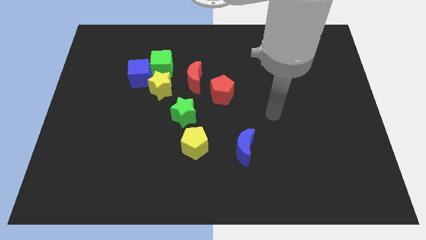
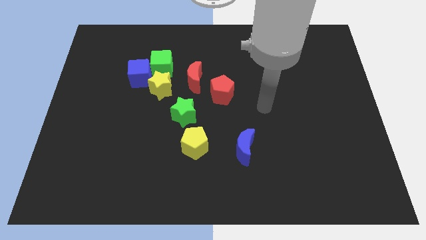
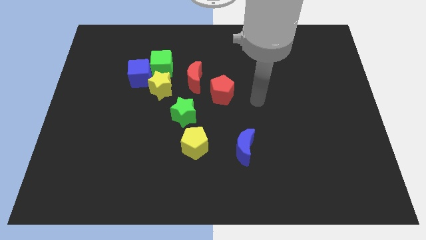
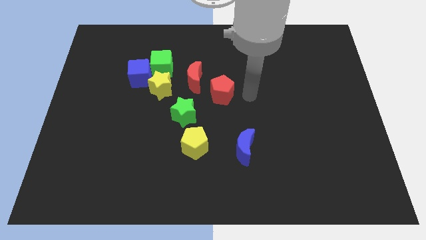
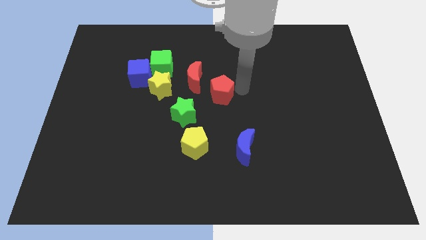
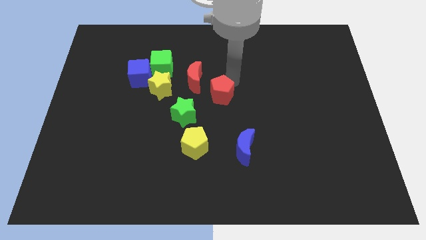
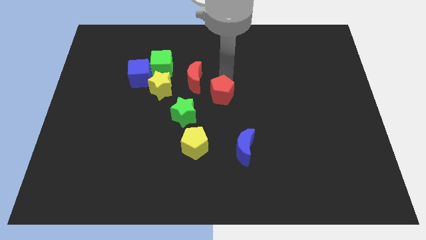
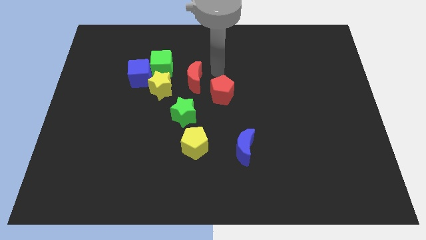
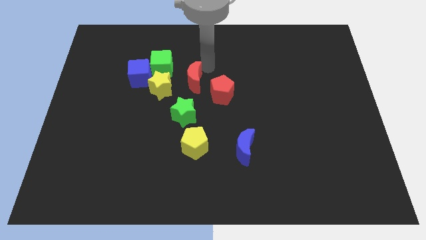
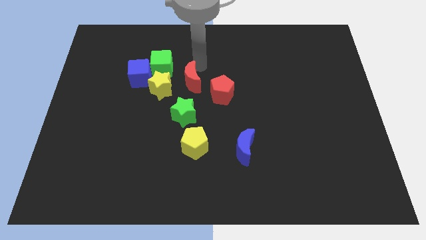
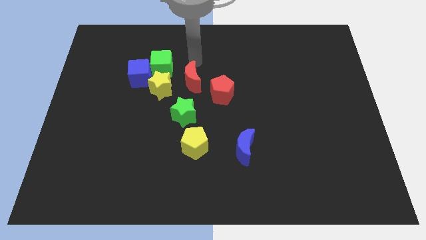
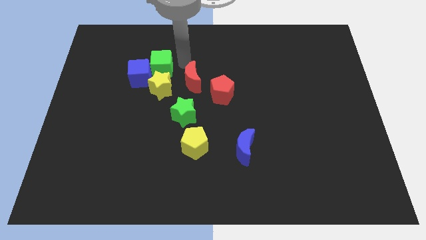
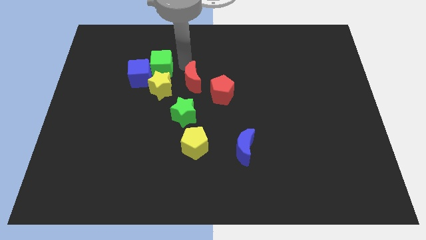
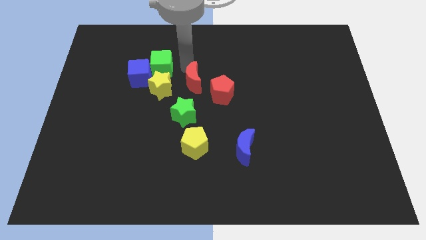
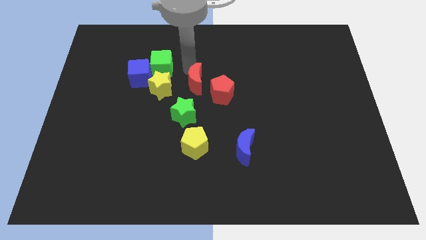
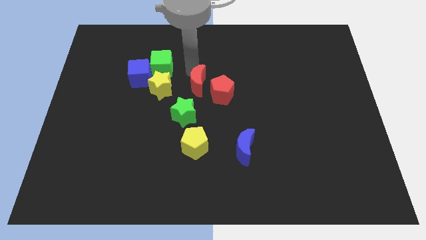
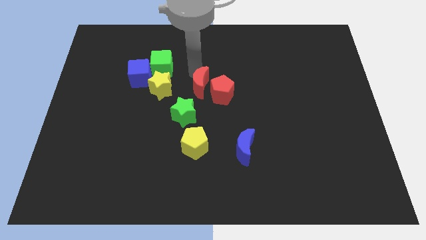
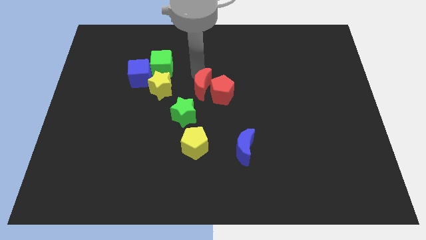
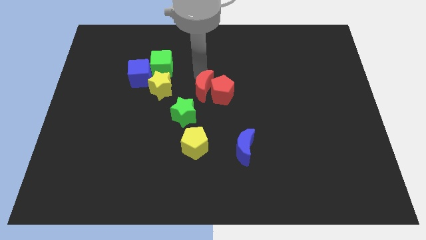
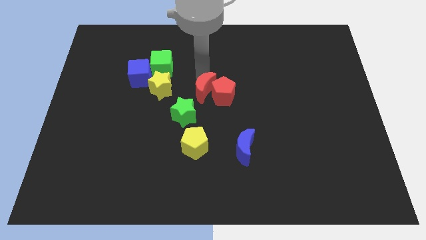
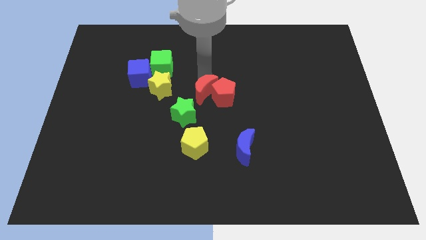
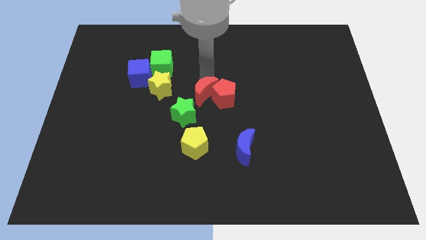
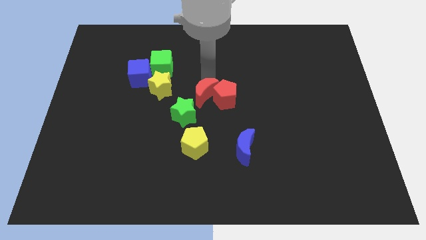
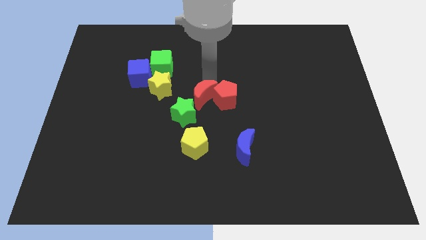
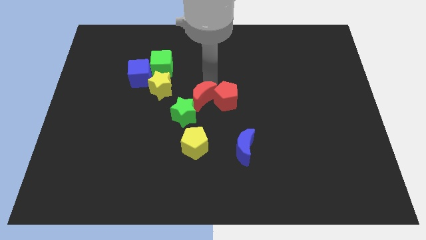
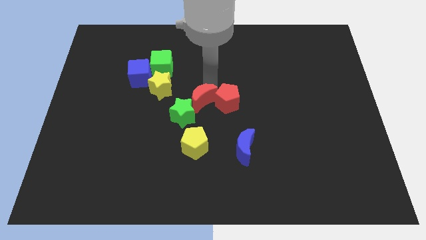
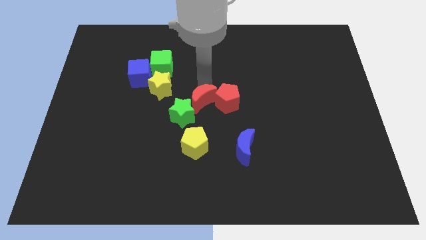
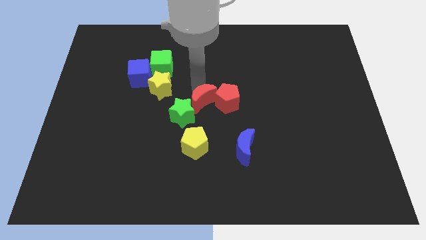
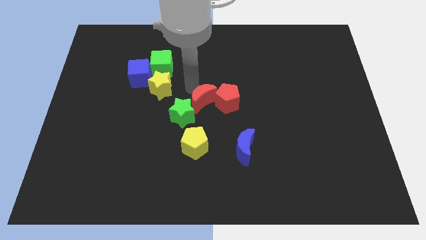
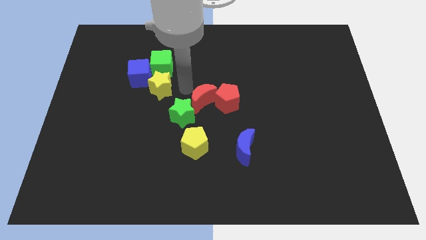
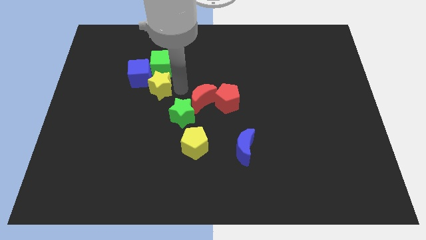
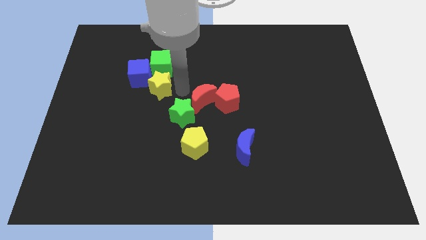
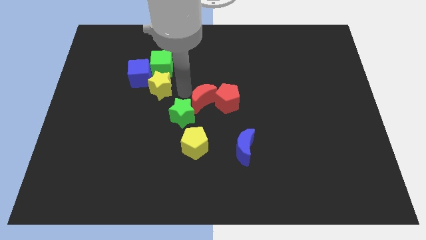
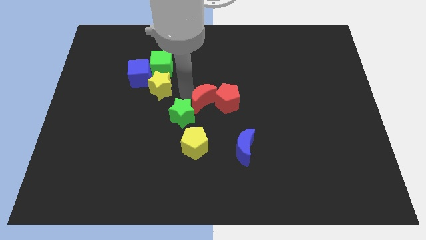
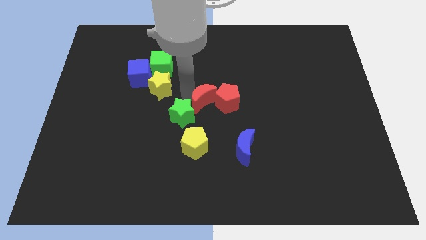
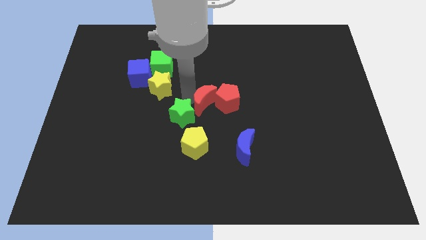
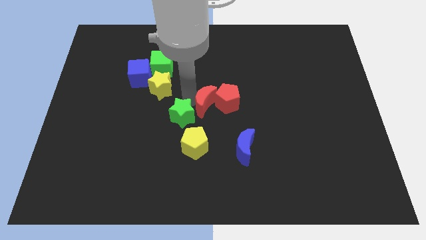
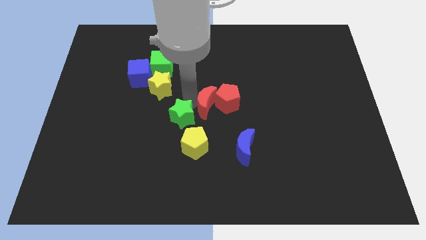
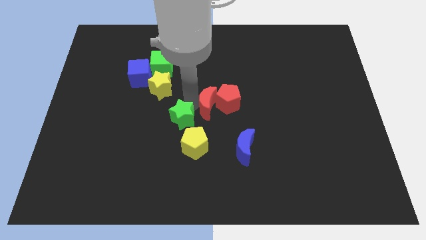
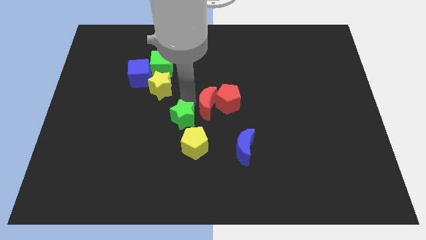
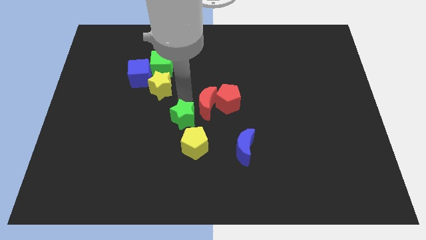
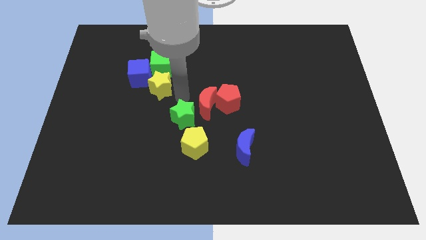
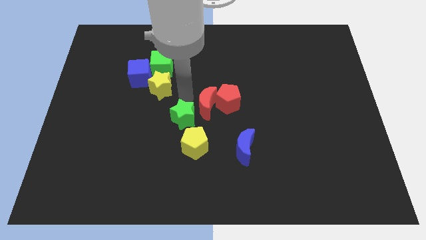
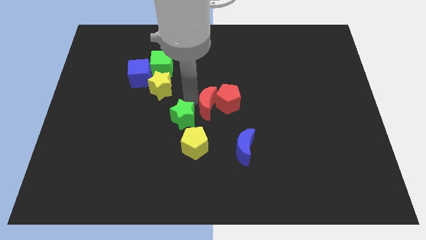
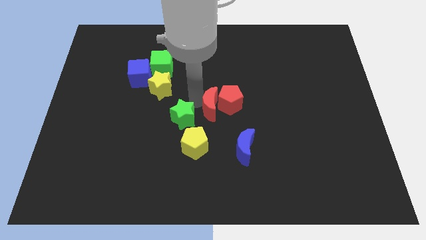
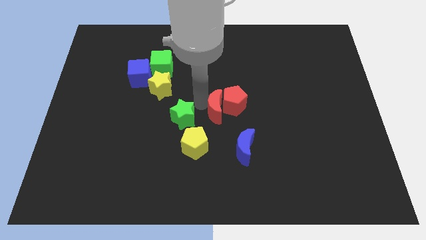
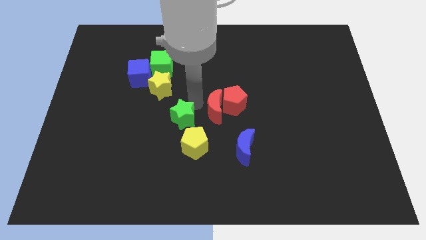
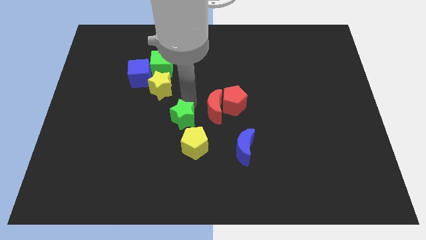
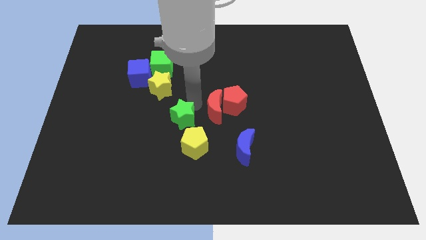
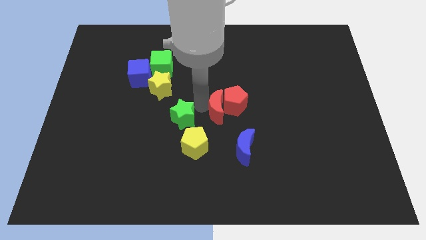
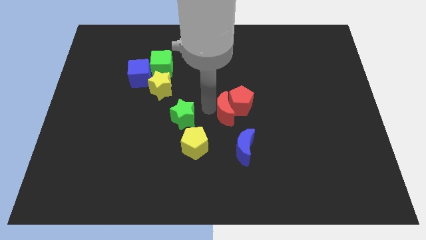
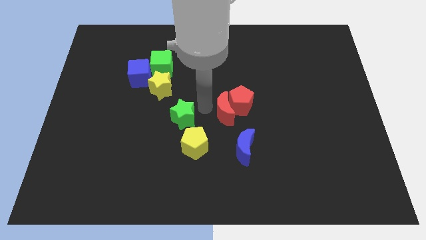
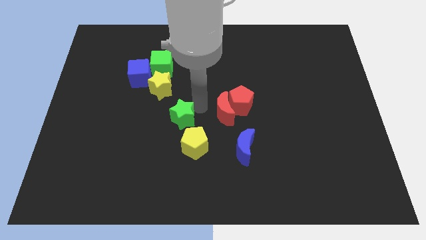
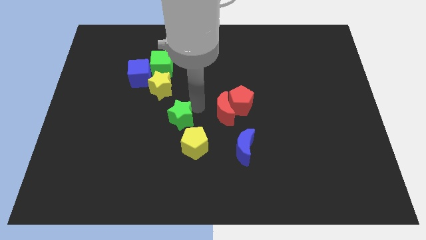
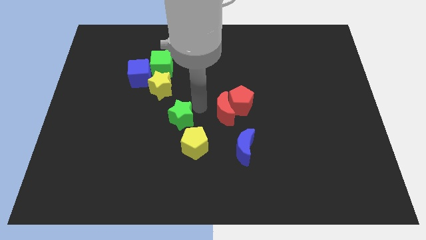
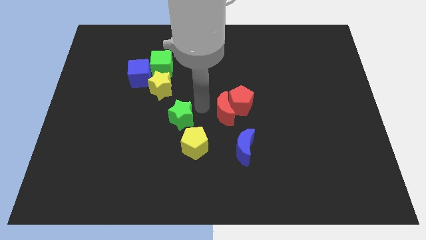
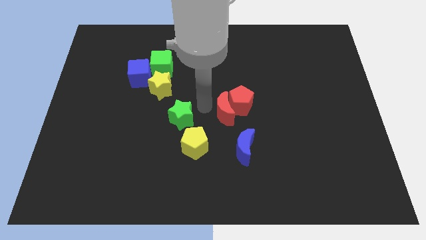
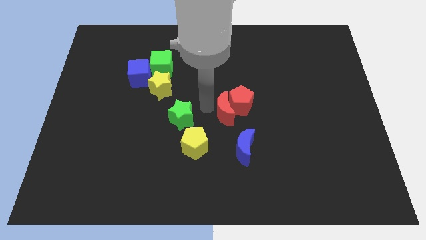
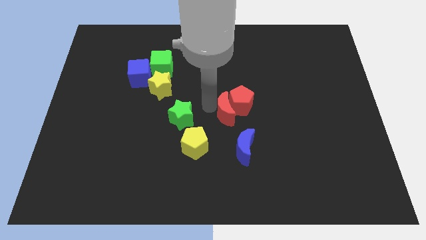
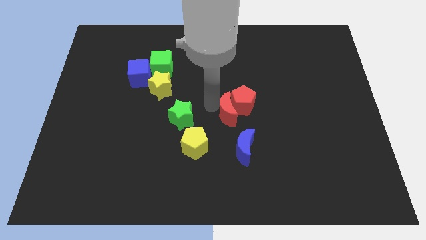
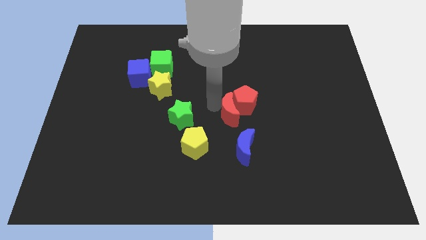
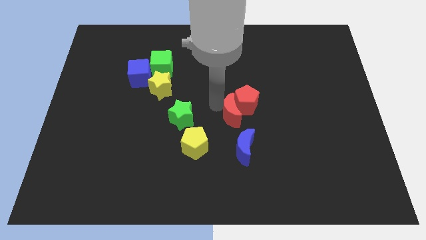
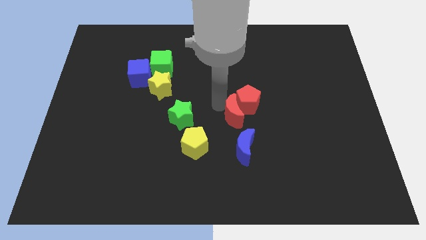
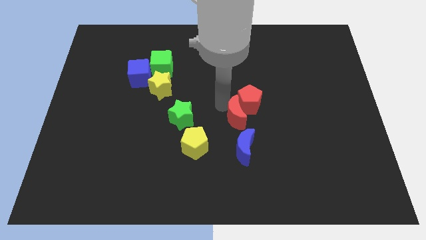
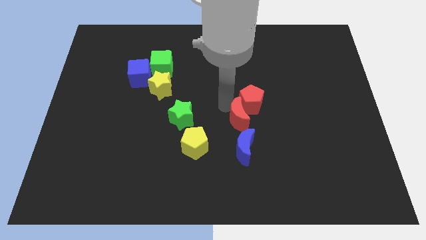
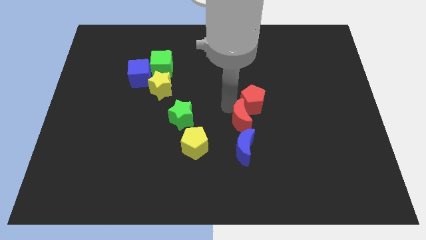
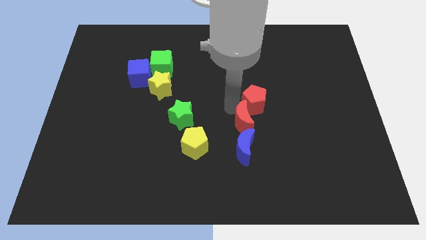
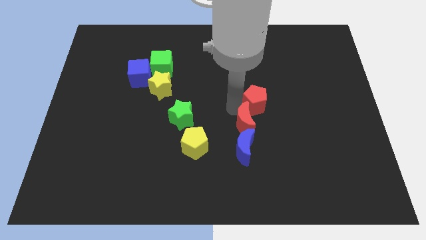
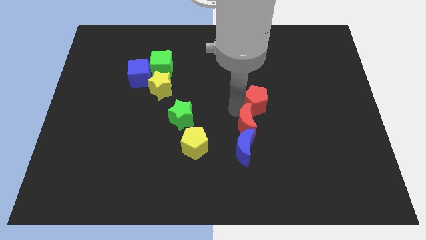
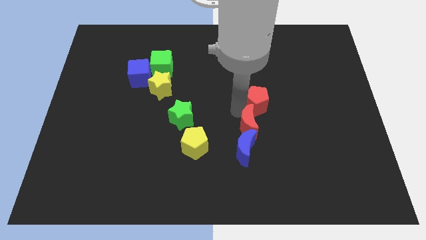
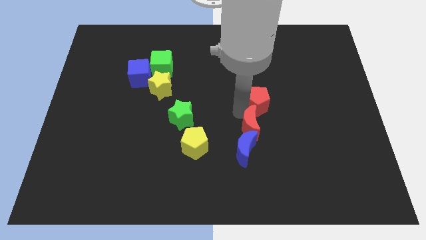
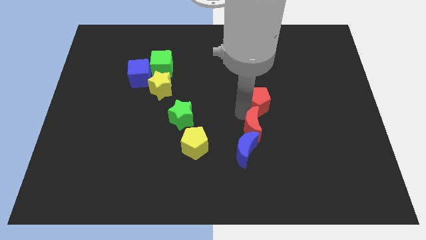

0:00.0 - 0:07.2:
move the red moon downwards and then to the right

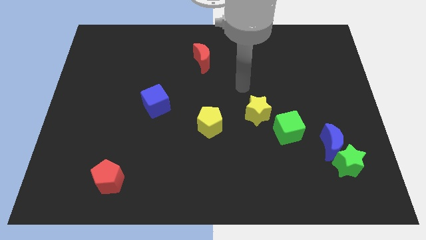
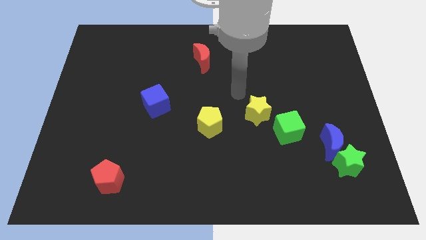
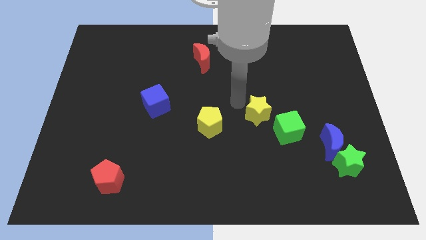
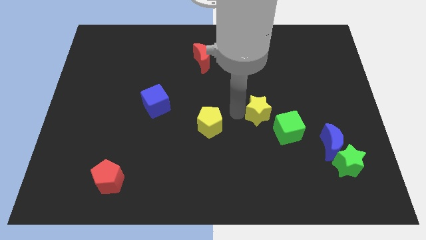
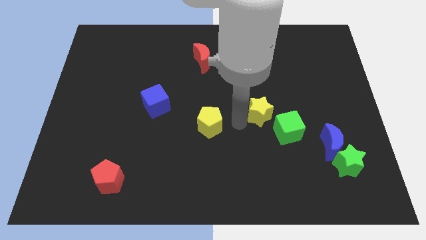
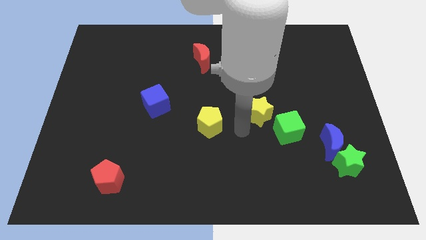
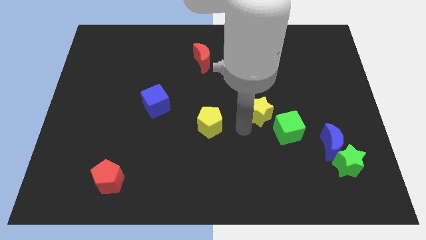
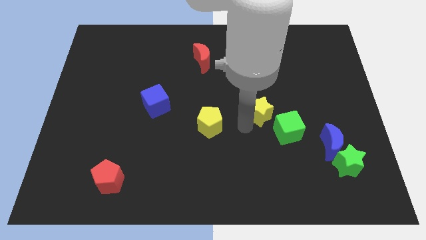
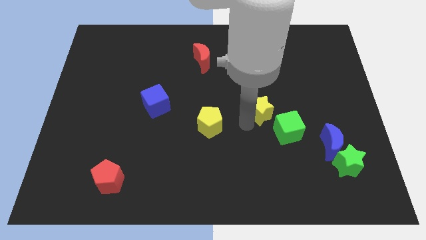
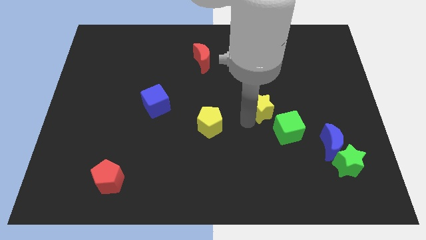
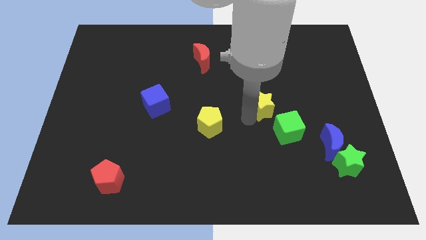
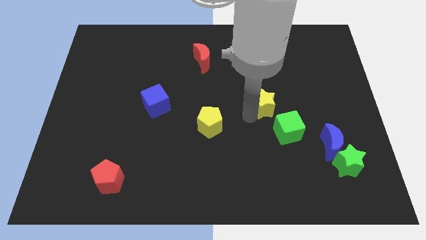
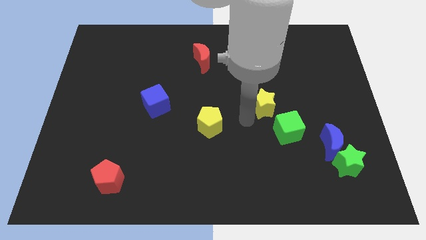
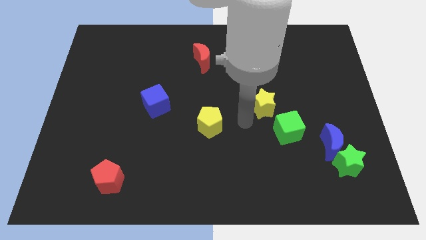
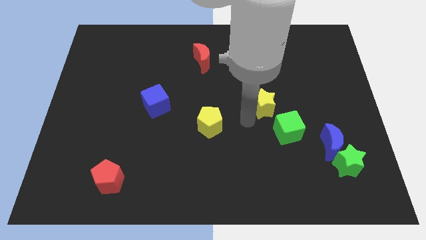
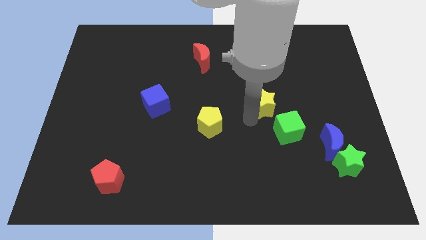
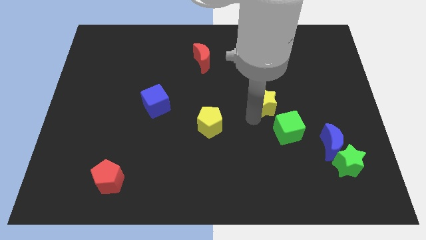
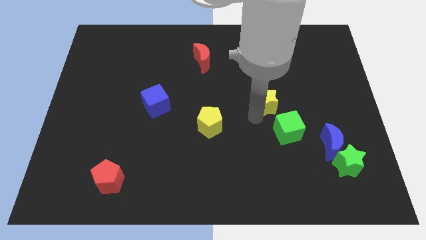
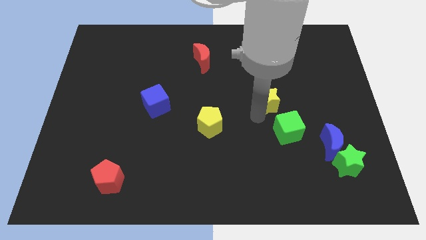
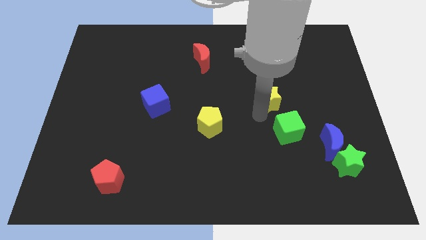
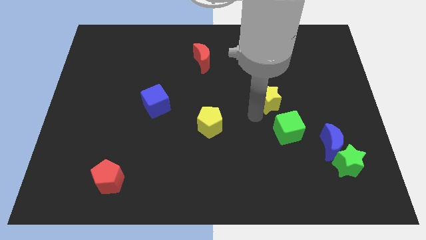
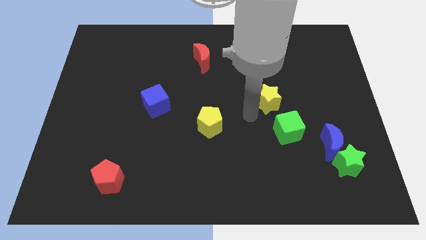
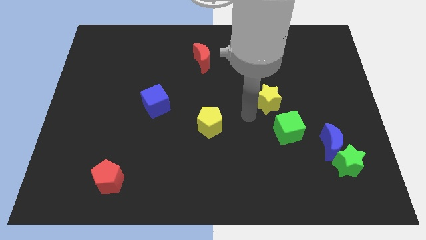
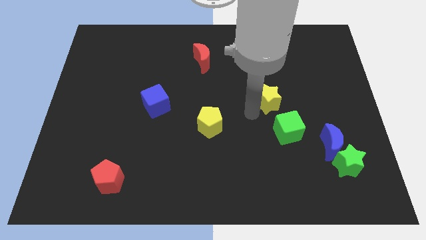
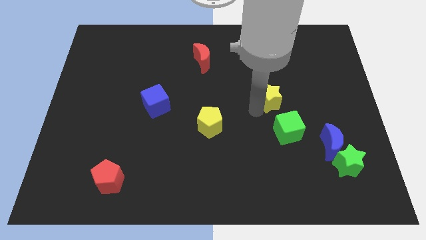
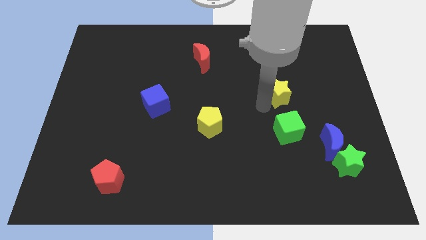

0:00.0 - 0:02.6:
slightly slide the yellow star upwards and to the right
